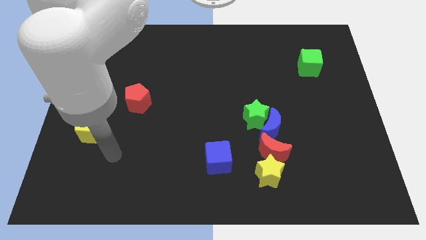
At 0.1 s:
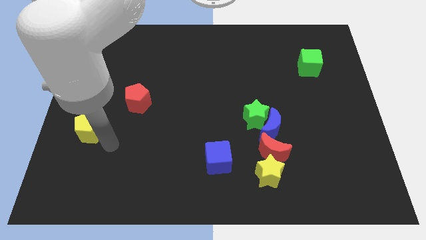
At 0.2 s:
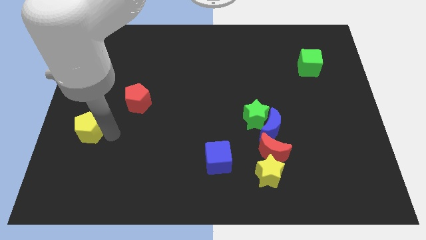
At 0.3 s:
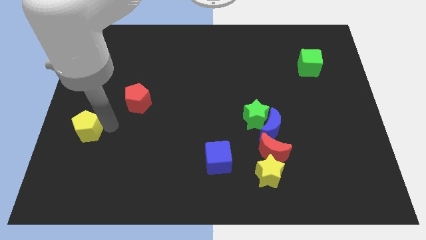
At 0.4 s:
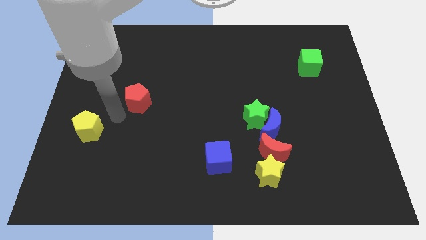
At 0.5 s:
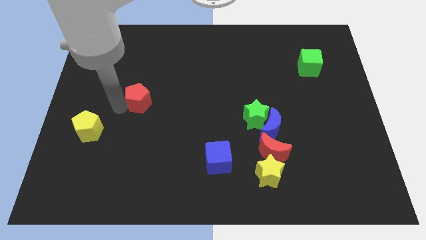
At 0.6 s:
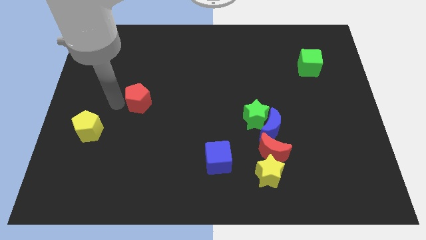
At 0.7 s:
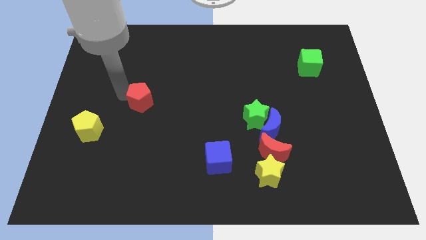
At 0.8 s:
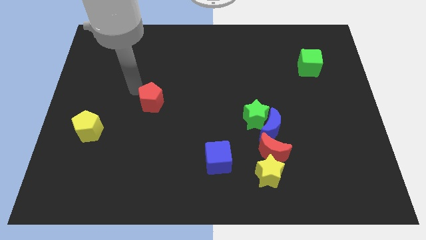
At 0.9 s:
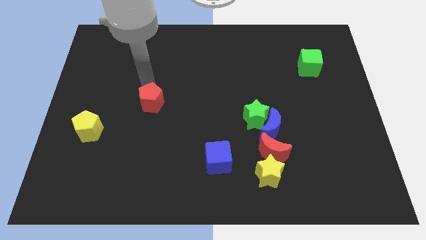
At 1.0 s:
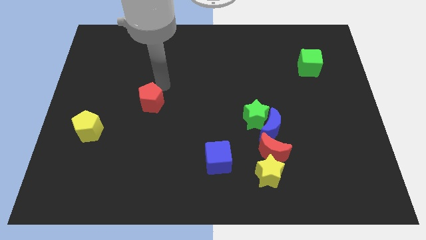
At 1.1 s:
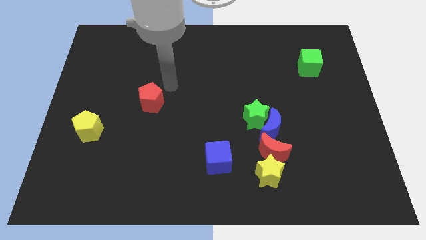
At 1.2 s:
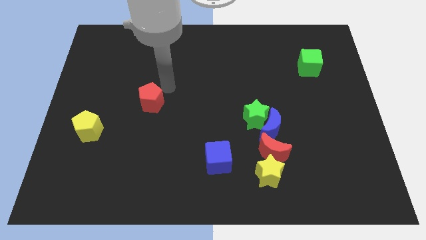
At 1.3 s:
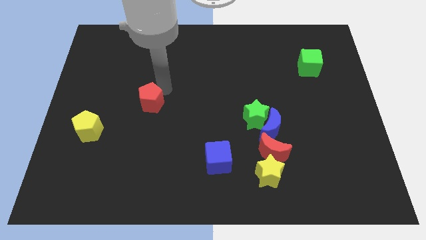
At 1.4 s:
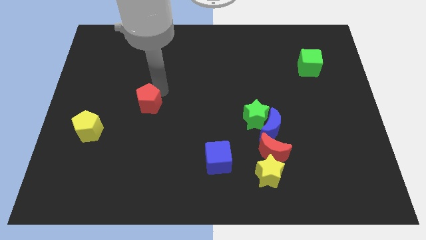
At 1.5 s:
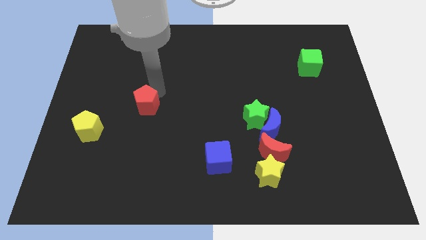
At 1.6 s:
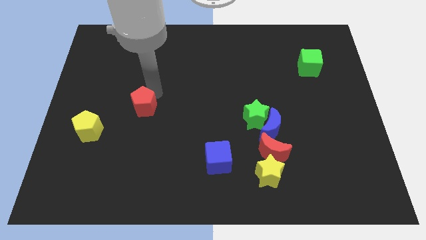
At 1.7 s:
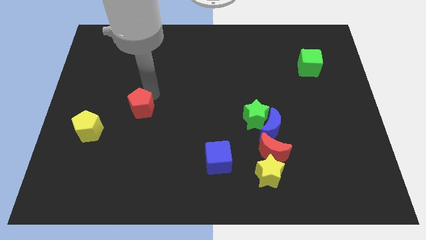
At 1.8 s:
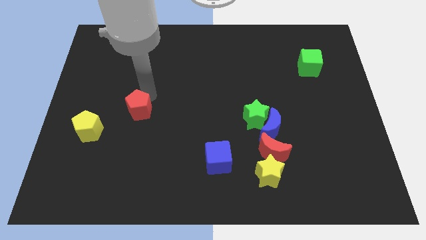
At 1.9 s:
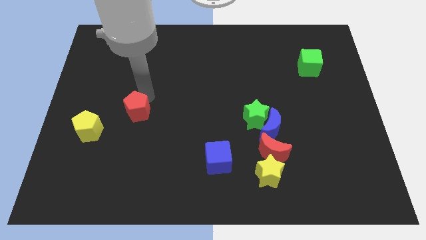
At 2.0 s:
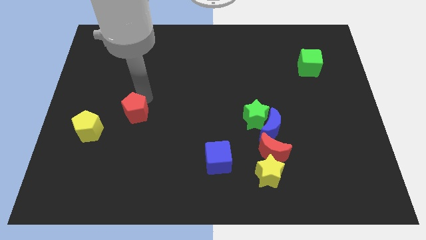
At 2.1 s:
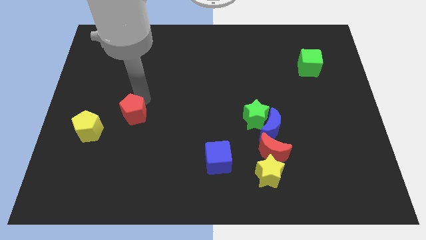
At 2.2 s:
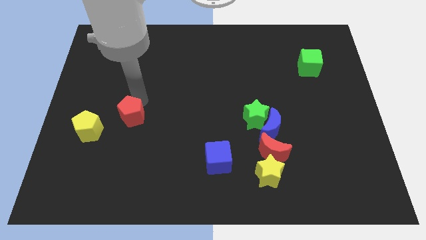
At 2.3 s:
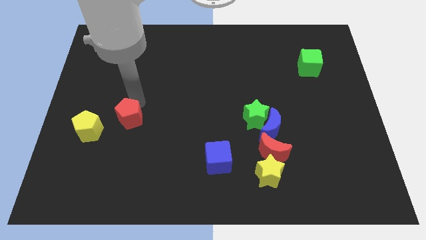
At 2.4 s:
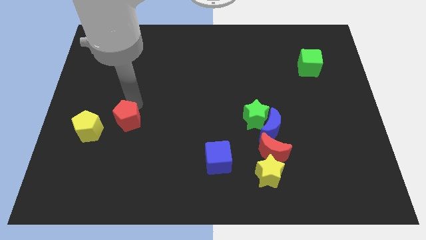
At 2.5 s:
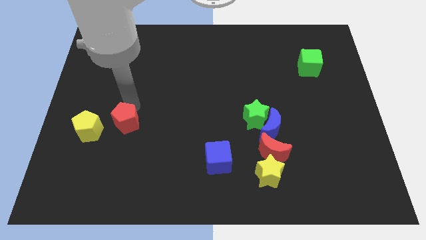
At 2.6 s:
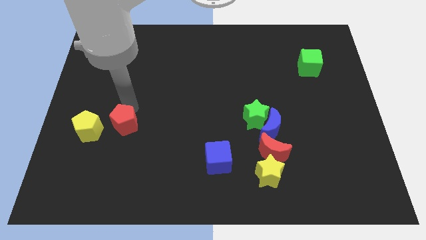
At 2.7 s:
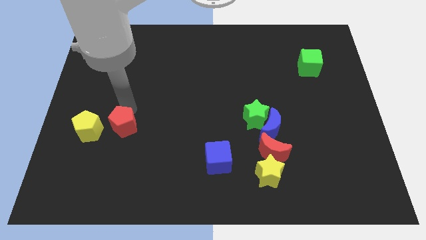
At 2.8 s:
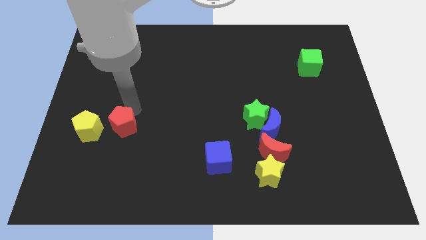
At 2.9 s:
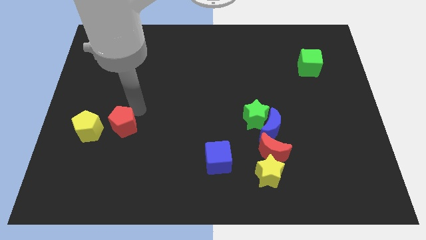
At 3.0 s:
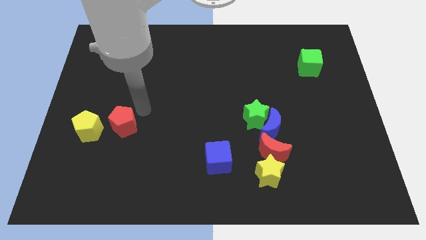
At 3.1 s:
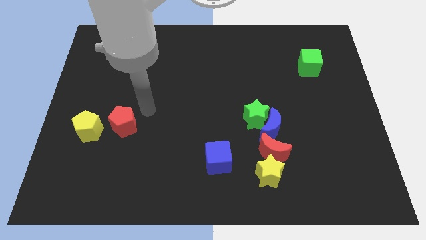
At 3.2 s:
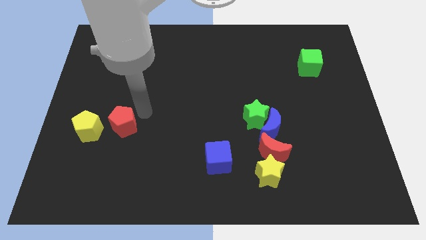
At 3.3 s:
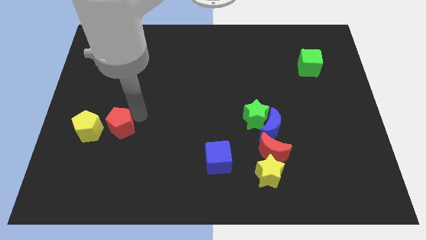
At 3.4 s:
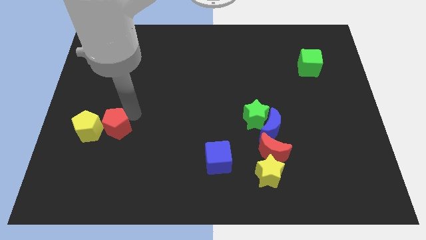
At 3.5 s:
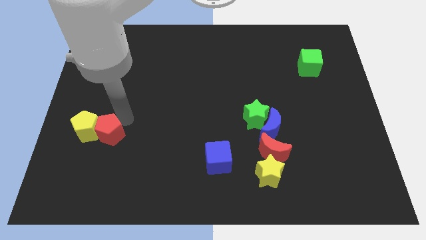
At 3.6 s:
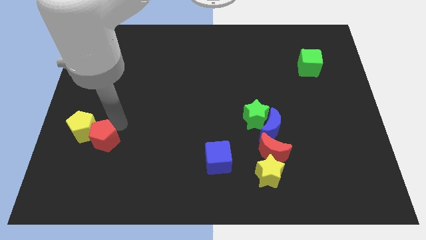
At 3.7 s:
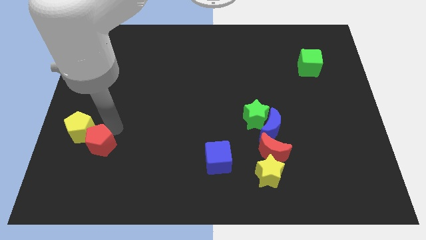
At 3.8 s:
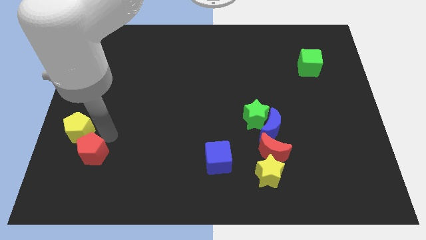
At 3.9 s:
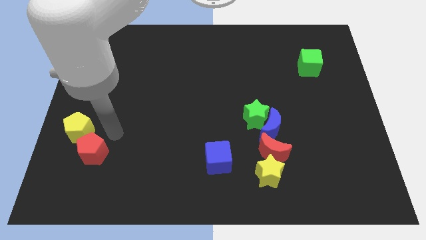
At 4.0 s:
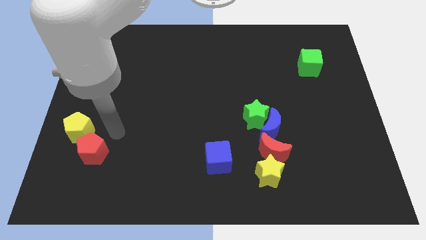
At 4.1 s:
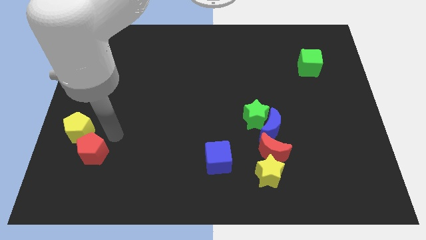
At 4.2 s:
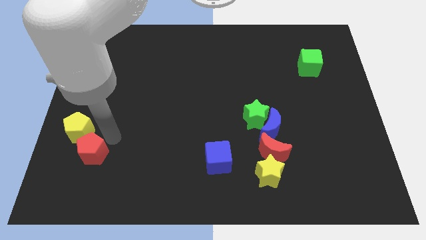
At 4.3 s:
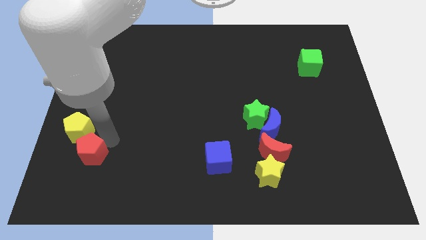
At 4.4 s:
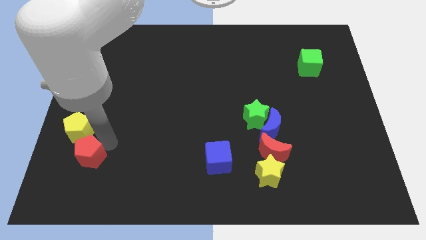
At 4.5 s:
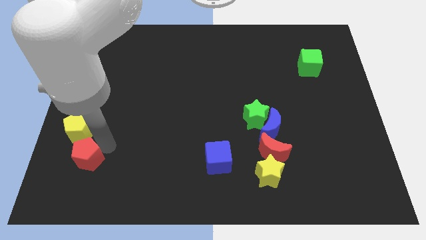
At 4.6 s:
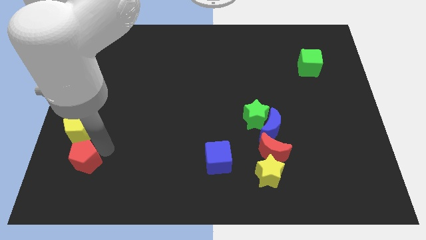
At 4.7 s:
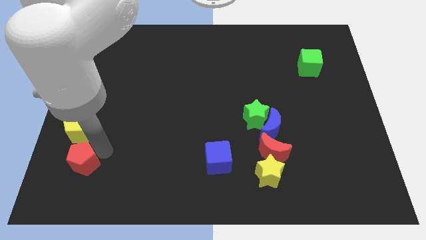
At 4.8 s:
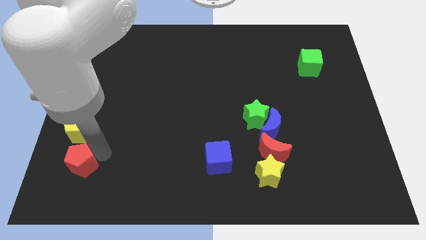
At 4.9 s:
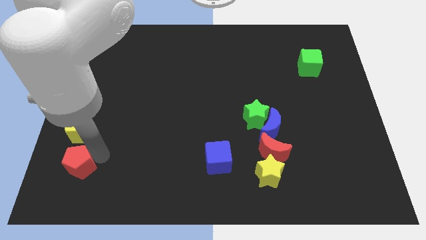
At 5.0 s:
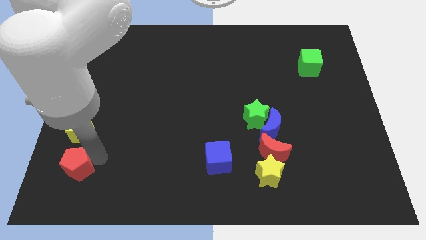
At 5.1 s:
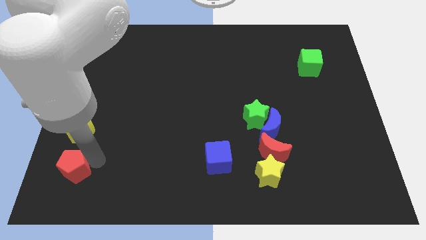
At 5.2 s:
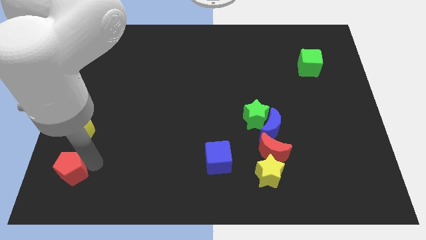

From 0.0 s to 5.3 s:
push the red pentagon to the bottom left of the board

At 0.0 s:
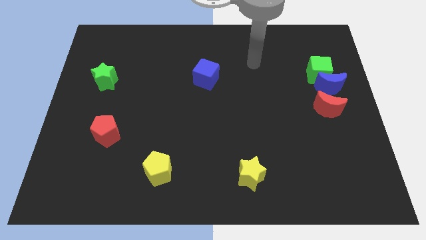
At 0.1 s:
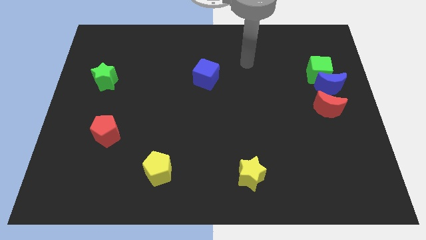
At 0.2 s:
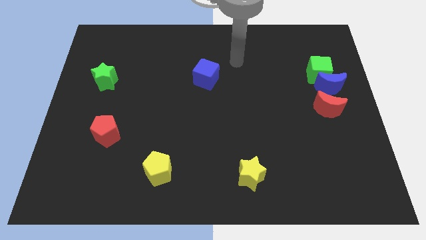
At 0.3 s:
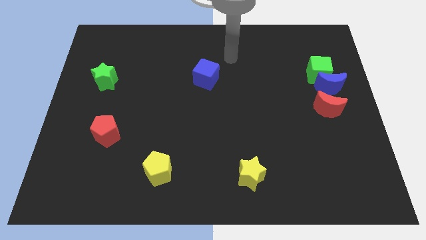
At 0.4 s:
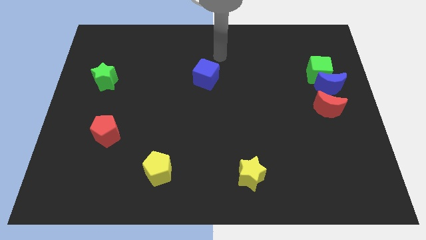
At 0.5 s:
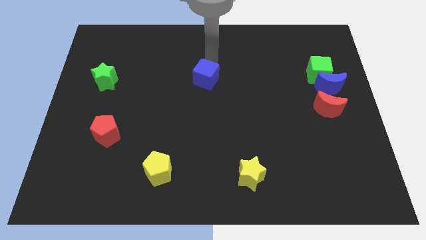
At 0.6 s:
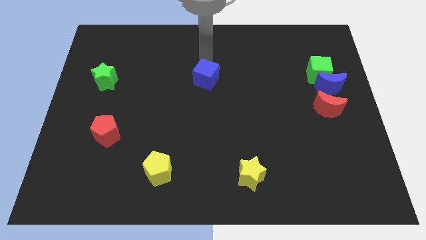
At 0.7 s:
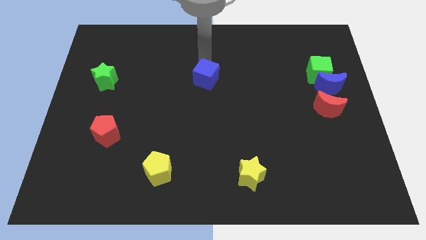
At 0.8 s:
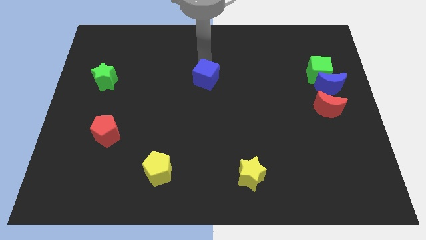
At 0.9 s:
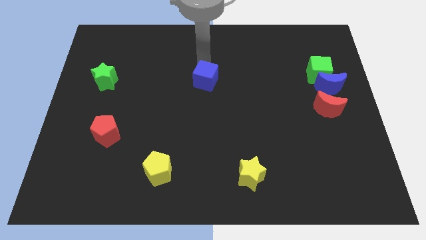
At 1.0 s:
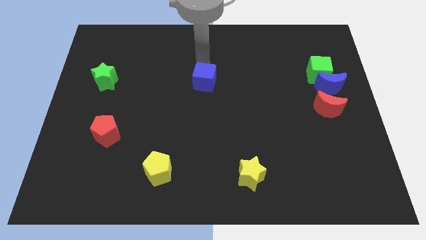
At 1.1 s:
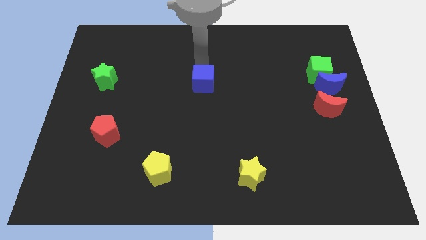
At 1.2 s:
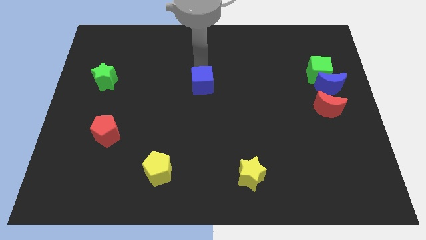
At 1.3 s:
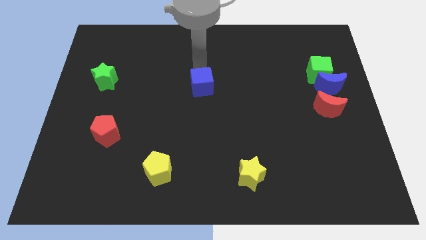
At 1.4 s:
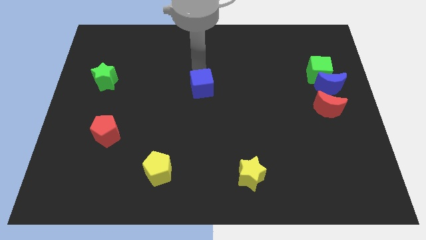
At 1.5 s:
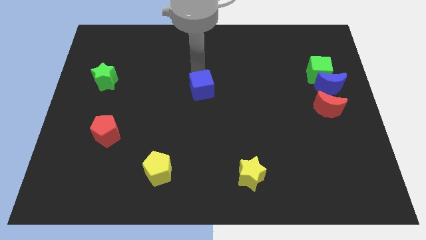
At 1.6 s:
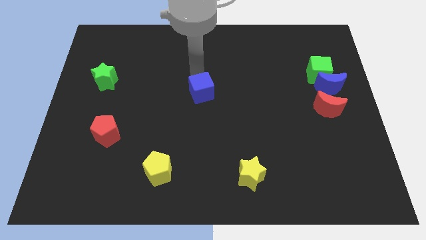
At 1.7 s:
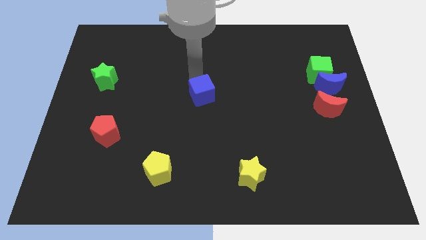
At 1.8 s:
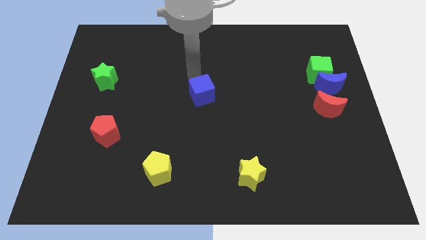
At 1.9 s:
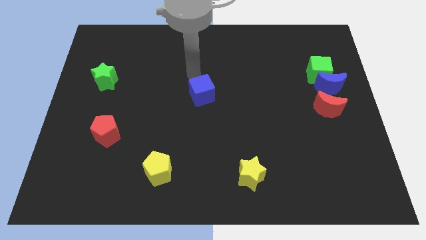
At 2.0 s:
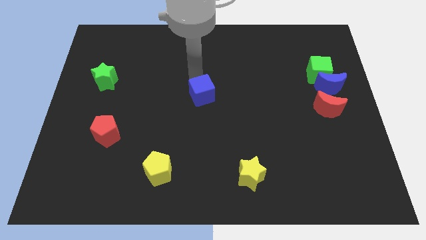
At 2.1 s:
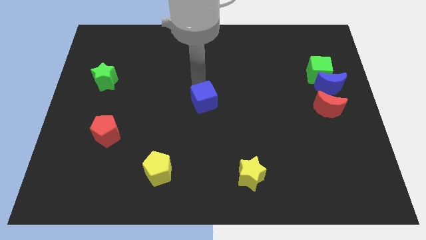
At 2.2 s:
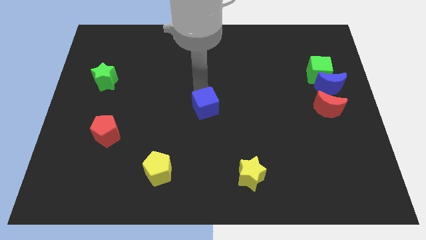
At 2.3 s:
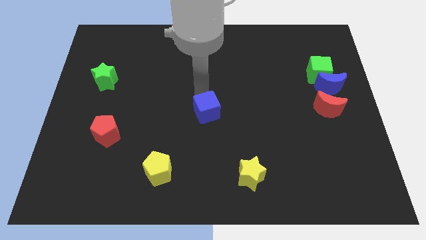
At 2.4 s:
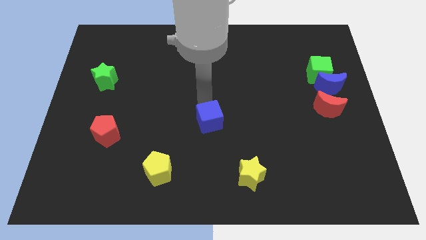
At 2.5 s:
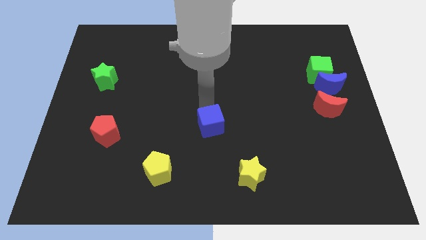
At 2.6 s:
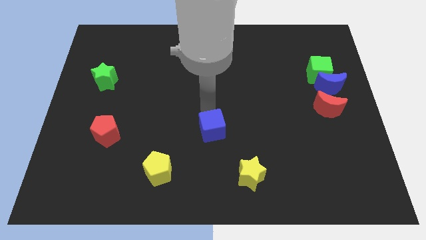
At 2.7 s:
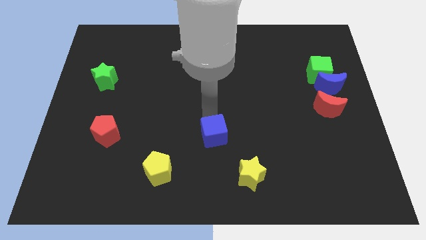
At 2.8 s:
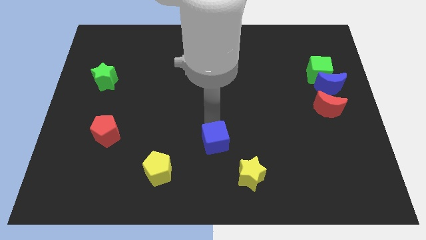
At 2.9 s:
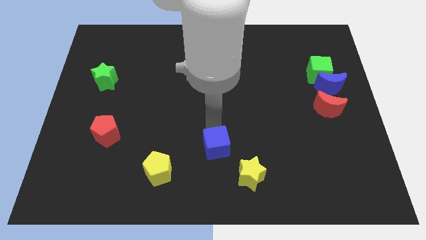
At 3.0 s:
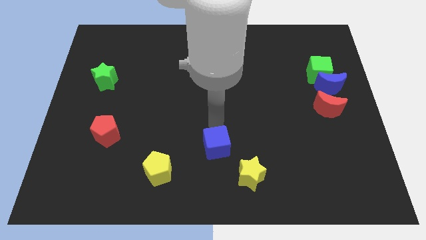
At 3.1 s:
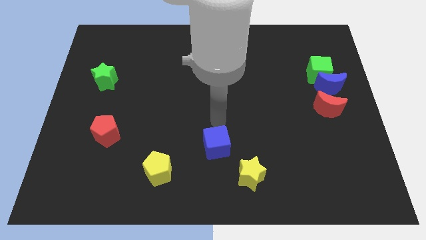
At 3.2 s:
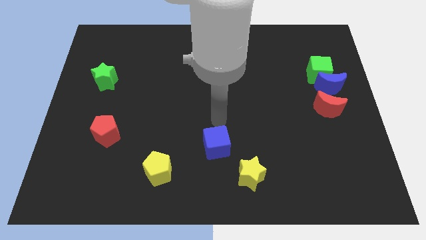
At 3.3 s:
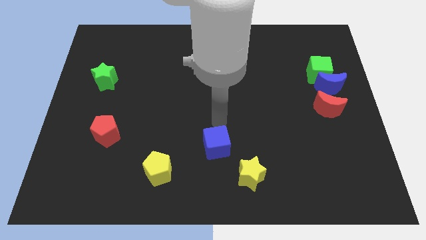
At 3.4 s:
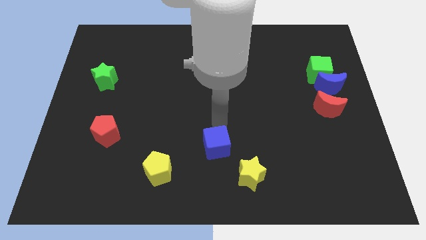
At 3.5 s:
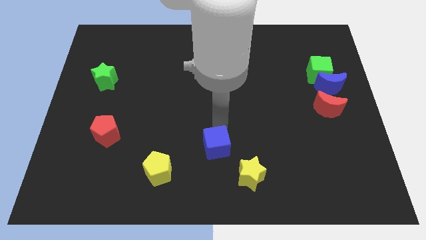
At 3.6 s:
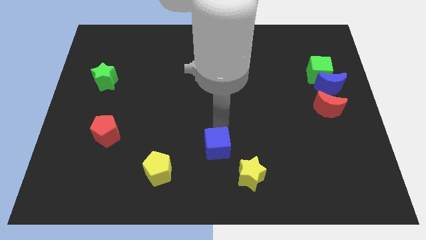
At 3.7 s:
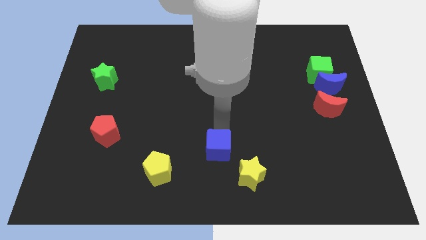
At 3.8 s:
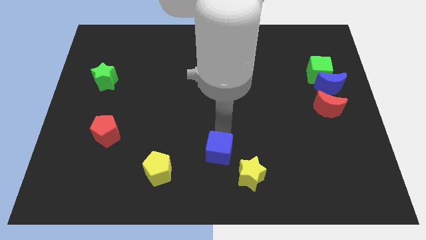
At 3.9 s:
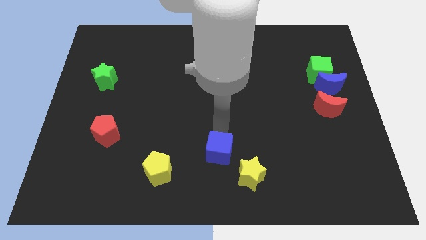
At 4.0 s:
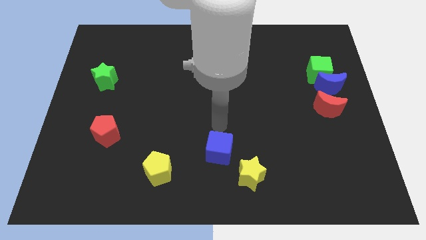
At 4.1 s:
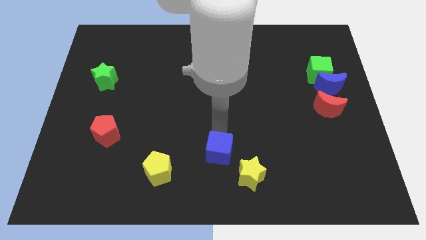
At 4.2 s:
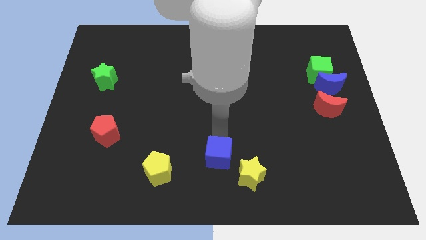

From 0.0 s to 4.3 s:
move the blue cube to the bottom side
